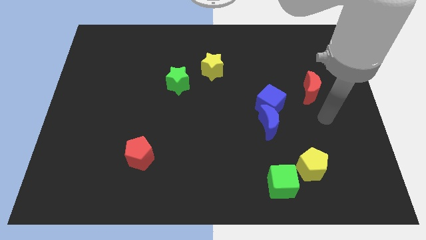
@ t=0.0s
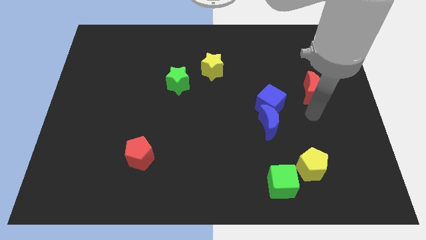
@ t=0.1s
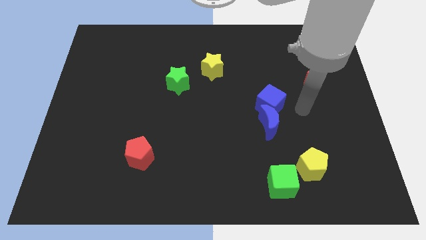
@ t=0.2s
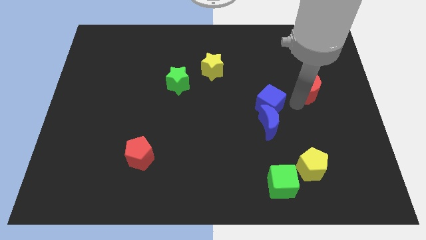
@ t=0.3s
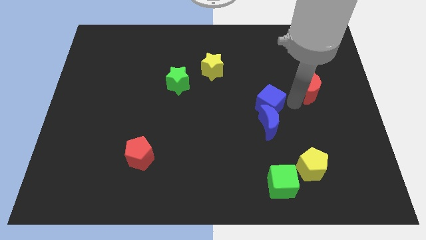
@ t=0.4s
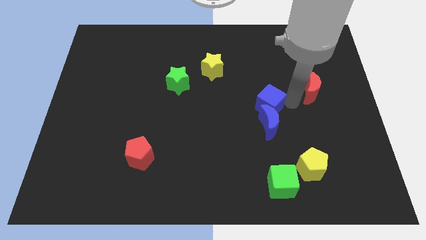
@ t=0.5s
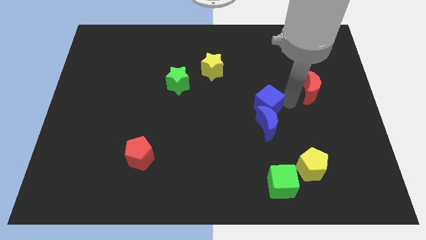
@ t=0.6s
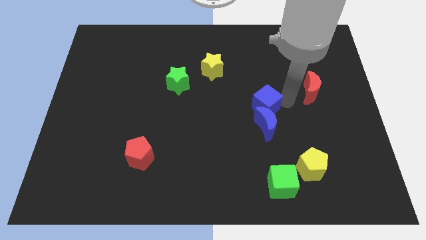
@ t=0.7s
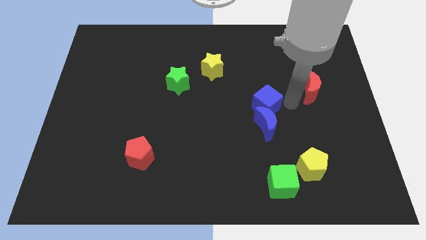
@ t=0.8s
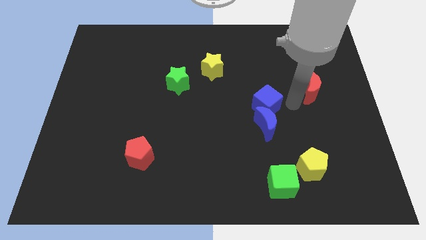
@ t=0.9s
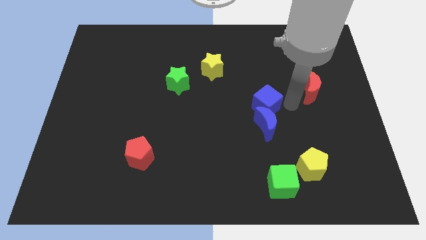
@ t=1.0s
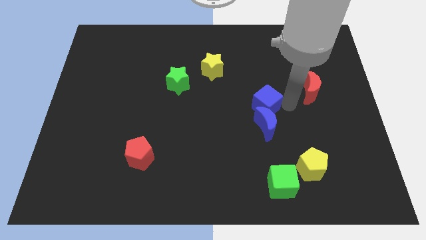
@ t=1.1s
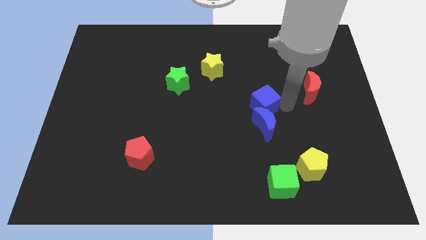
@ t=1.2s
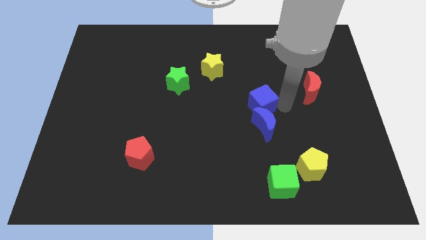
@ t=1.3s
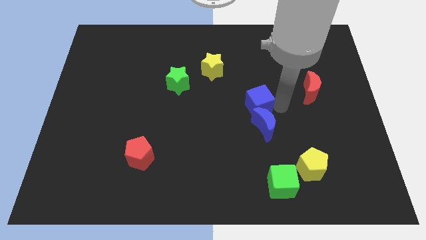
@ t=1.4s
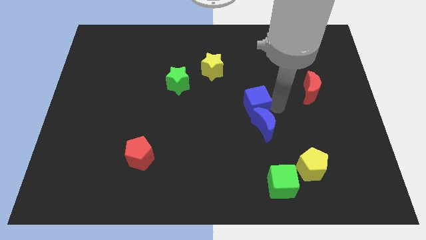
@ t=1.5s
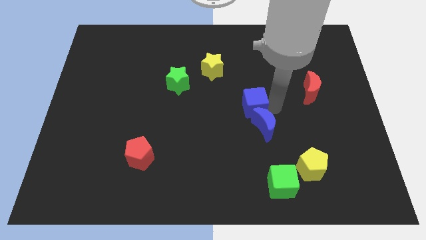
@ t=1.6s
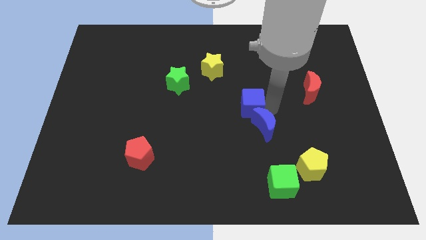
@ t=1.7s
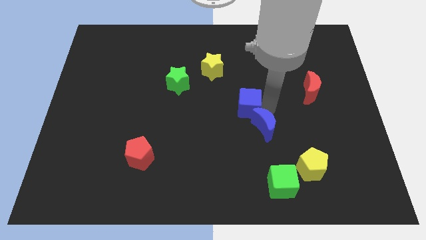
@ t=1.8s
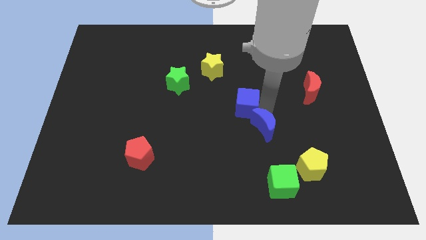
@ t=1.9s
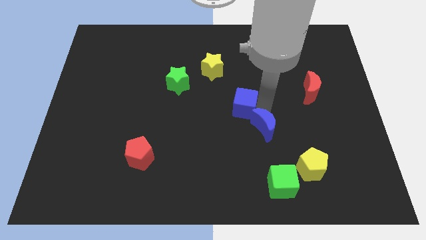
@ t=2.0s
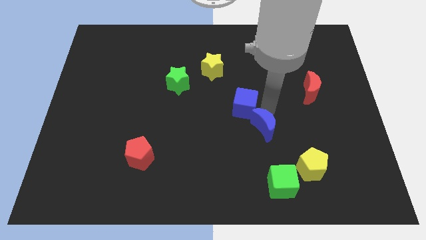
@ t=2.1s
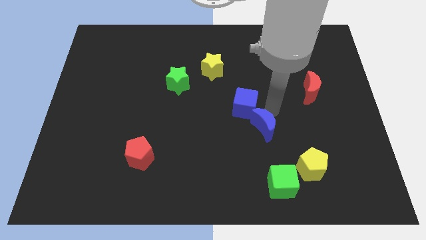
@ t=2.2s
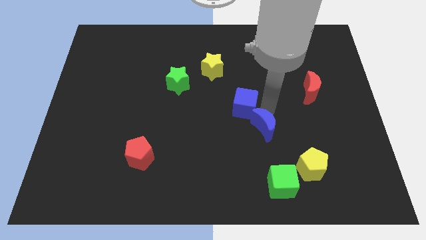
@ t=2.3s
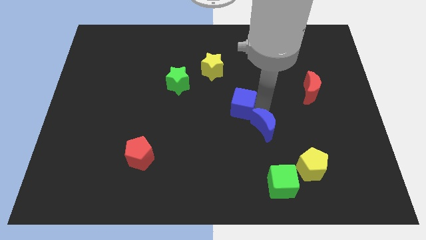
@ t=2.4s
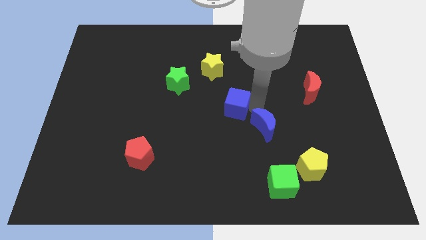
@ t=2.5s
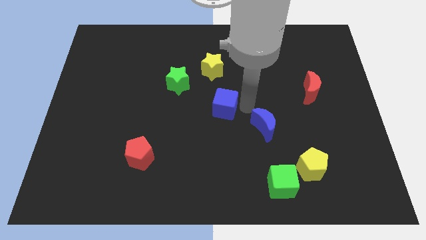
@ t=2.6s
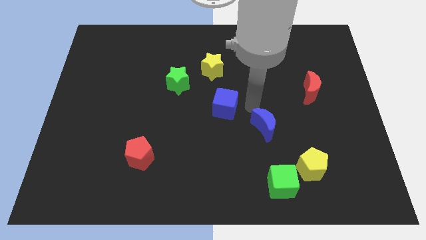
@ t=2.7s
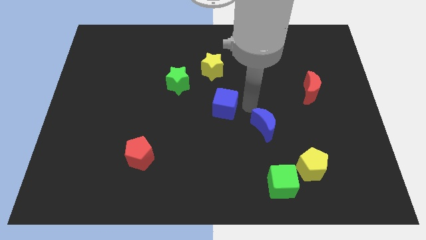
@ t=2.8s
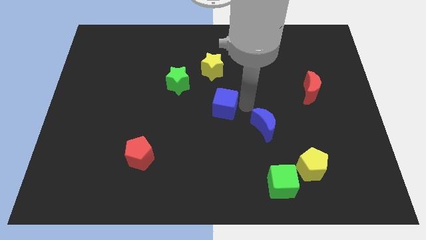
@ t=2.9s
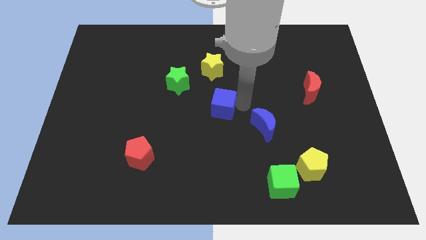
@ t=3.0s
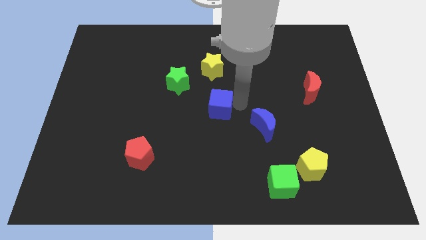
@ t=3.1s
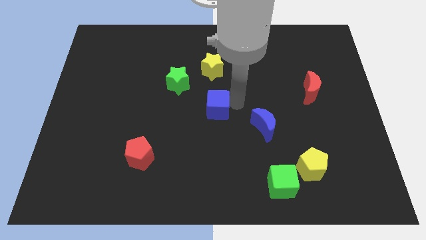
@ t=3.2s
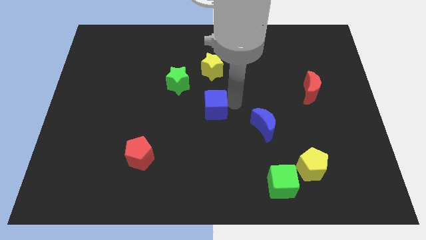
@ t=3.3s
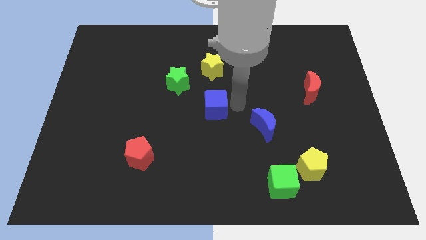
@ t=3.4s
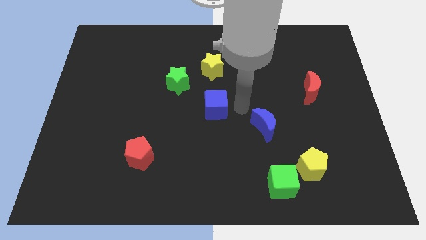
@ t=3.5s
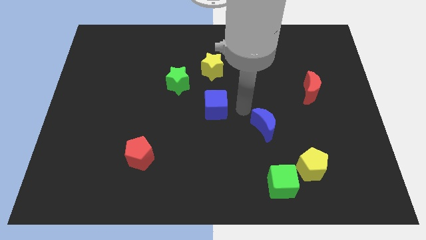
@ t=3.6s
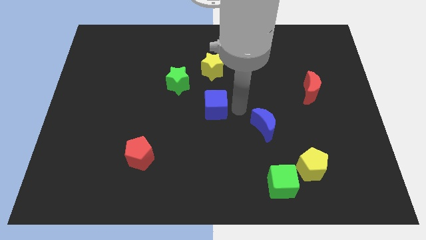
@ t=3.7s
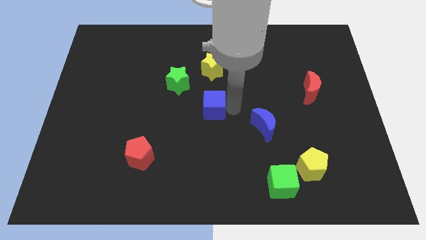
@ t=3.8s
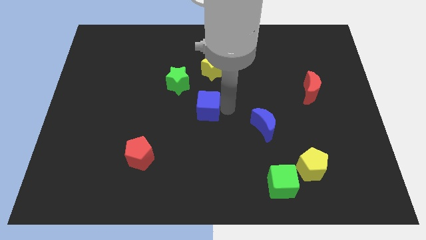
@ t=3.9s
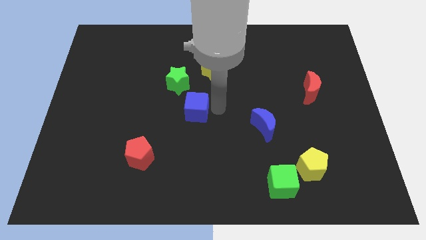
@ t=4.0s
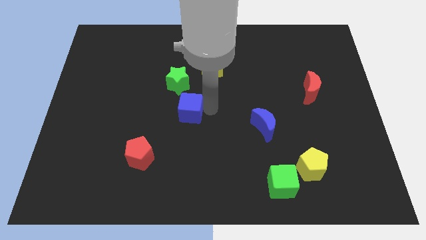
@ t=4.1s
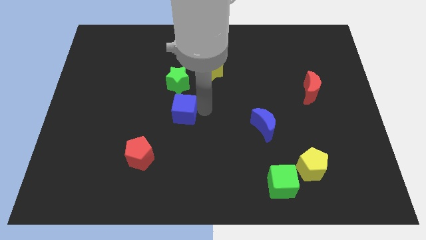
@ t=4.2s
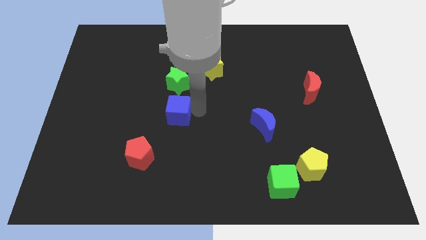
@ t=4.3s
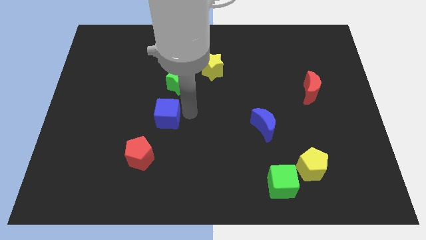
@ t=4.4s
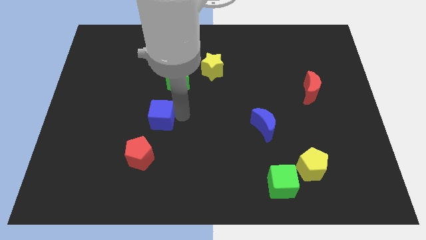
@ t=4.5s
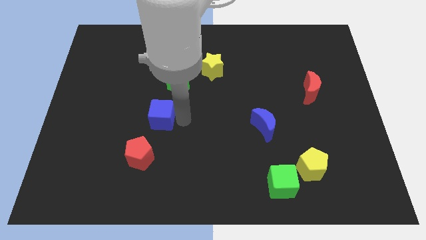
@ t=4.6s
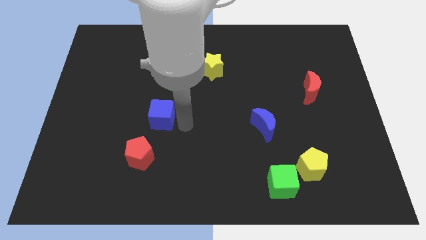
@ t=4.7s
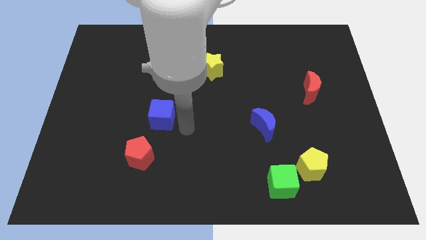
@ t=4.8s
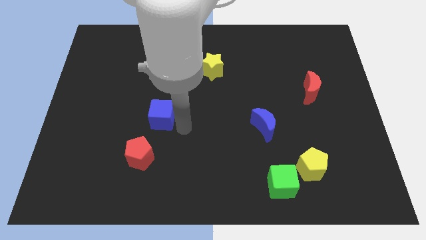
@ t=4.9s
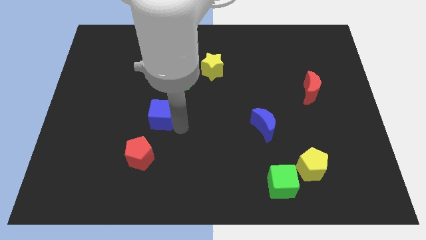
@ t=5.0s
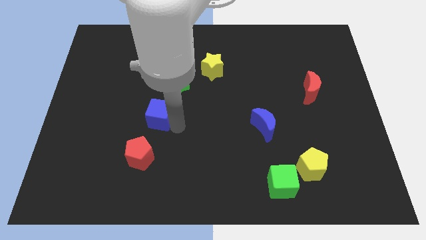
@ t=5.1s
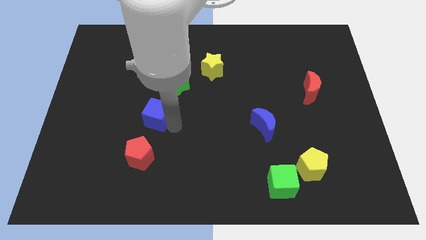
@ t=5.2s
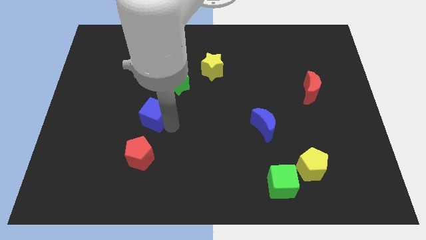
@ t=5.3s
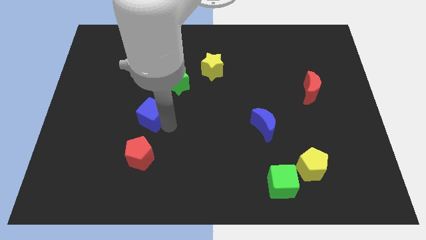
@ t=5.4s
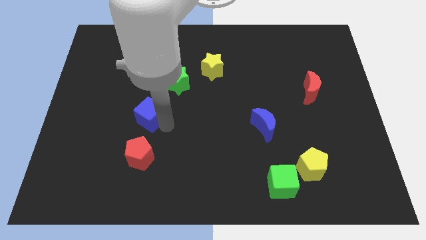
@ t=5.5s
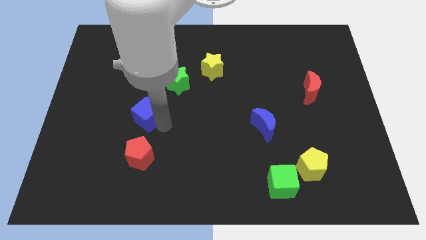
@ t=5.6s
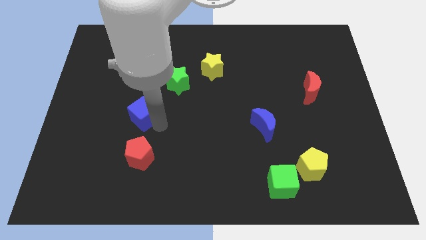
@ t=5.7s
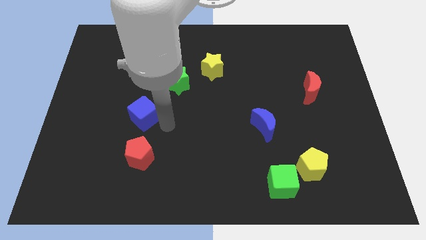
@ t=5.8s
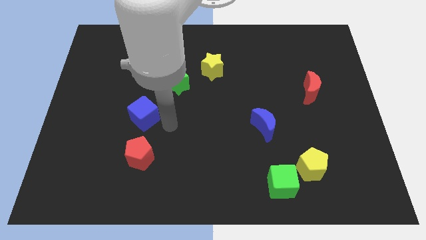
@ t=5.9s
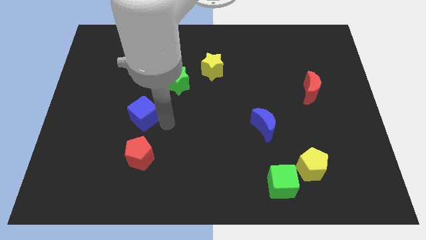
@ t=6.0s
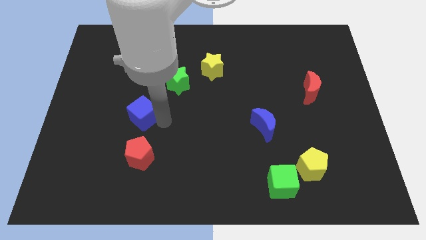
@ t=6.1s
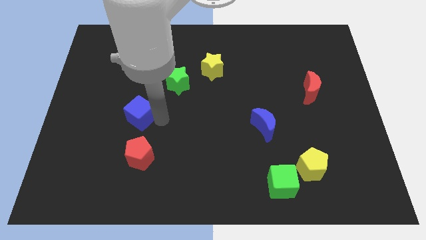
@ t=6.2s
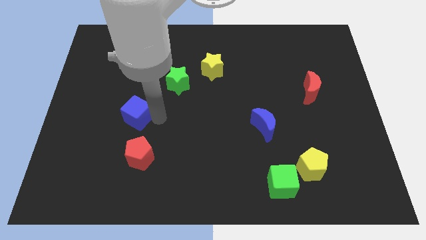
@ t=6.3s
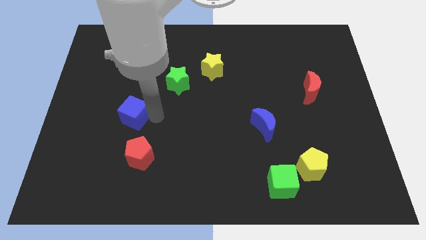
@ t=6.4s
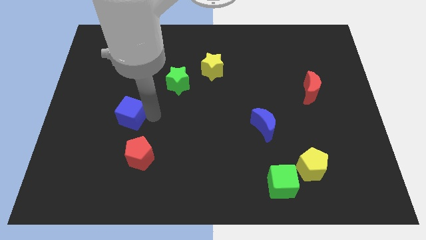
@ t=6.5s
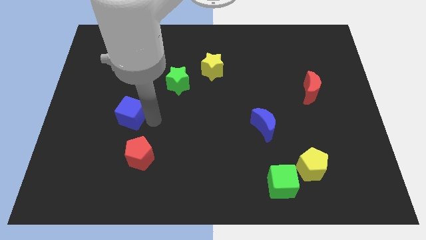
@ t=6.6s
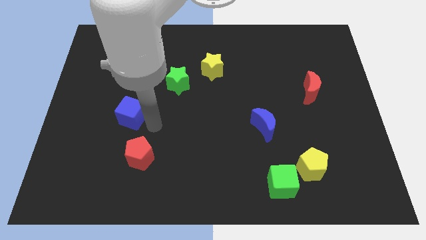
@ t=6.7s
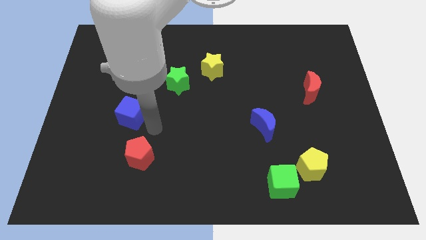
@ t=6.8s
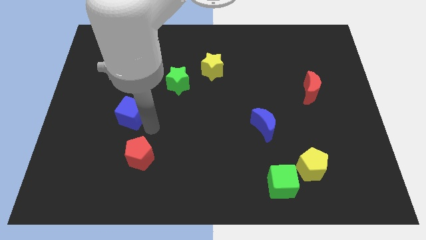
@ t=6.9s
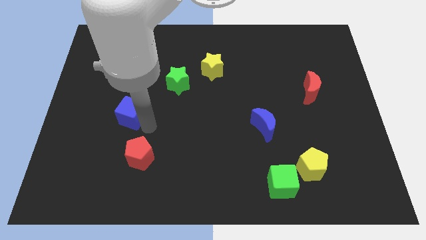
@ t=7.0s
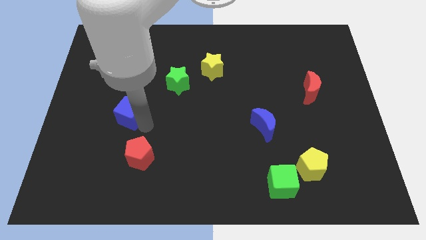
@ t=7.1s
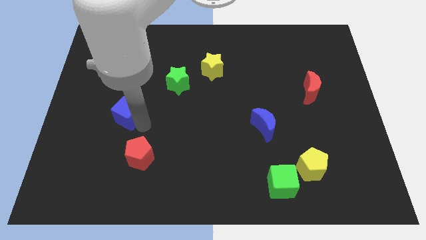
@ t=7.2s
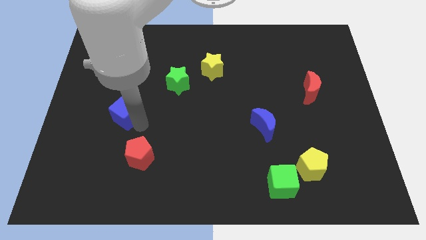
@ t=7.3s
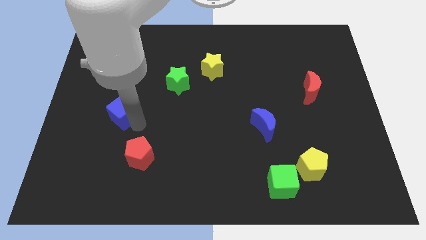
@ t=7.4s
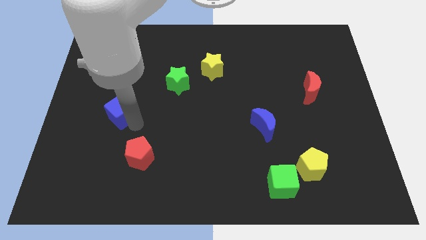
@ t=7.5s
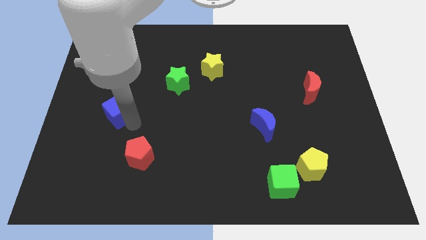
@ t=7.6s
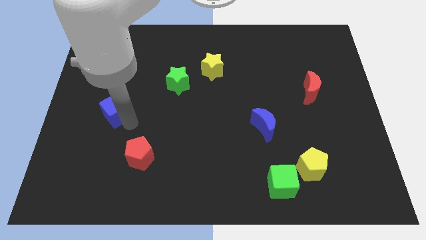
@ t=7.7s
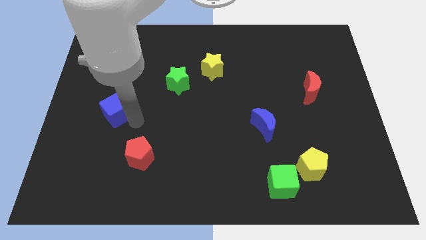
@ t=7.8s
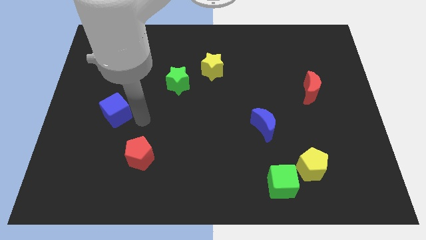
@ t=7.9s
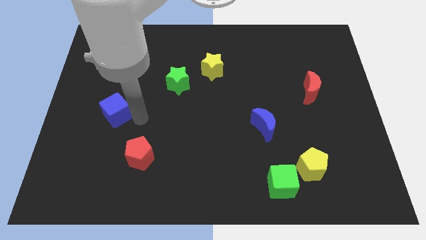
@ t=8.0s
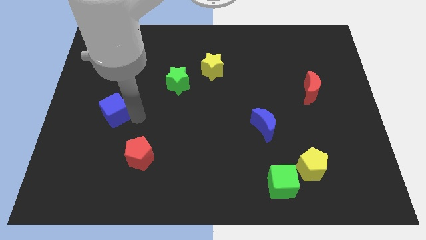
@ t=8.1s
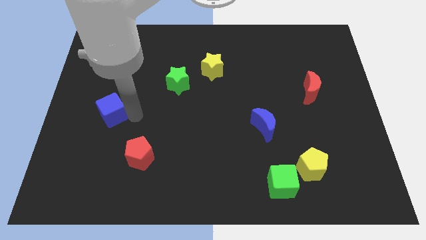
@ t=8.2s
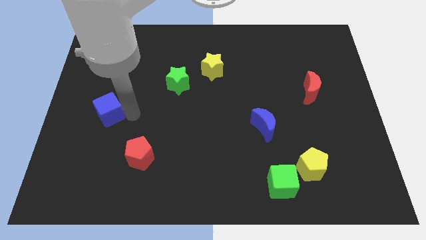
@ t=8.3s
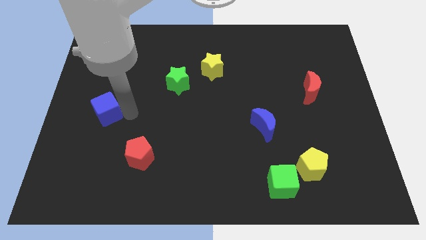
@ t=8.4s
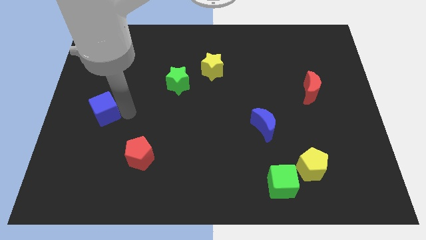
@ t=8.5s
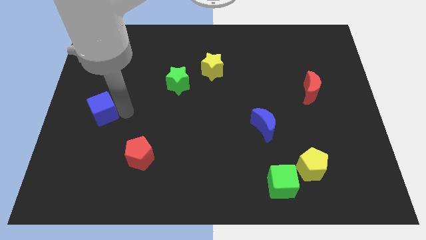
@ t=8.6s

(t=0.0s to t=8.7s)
put the blue cube to the left side
